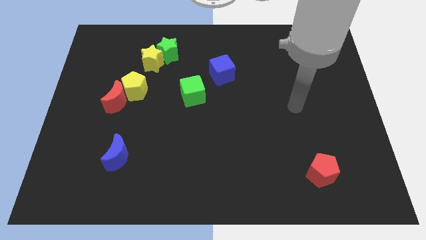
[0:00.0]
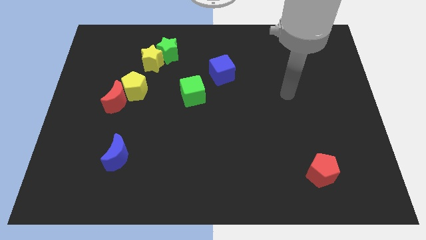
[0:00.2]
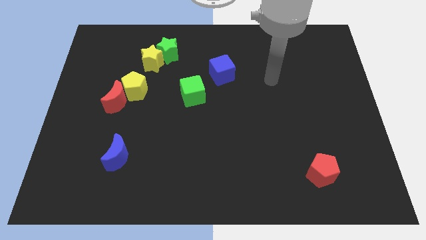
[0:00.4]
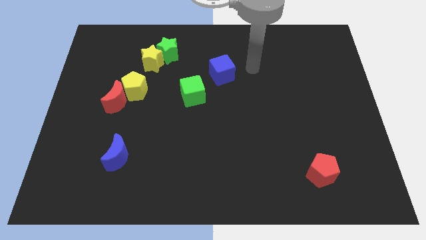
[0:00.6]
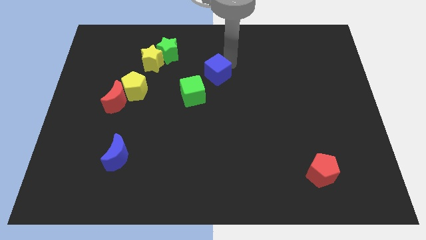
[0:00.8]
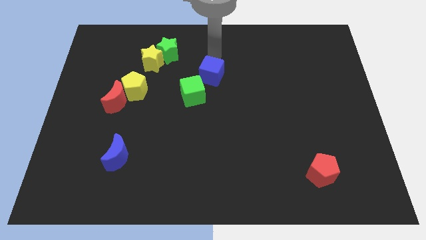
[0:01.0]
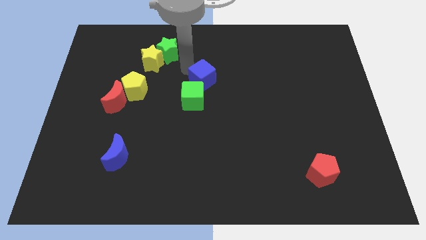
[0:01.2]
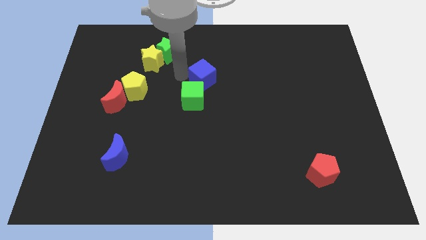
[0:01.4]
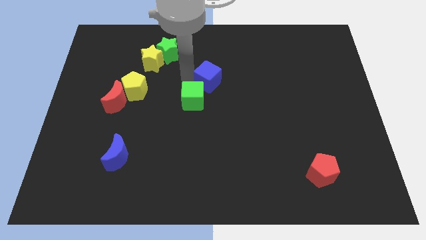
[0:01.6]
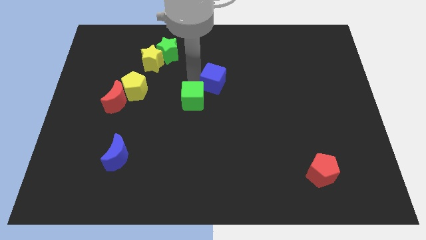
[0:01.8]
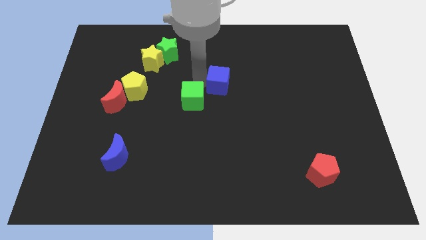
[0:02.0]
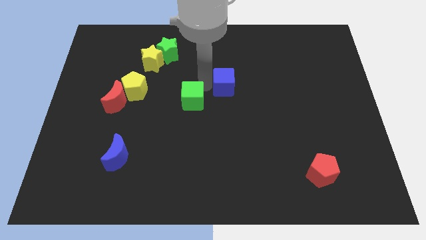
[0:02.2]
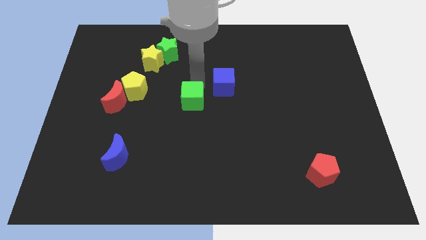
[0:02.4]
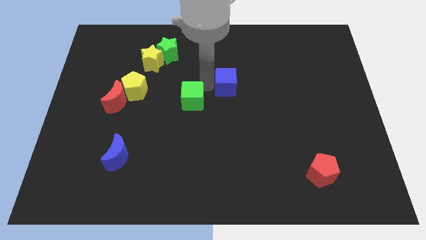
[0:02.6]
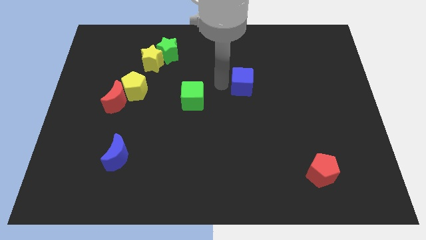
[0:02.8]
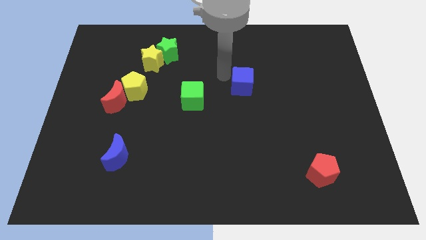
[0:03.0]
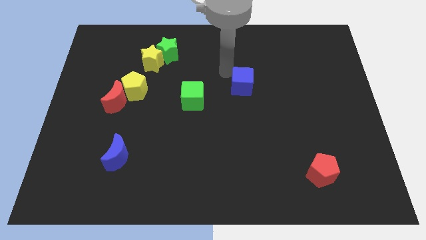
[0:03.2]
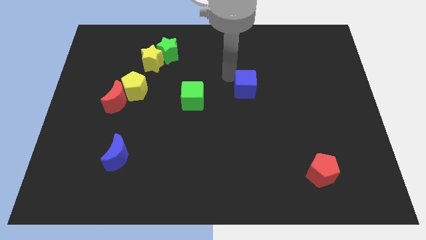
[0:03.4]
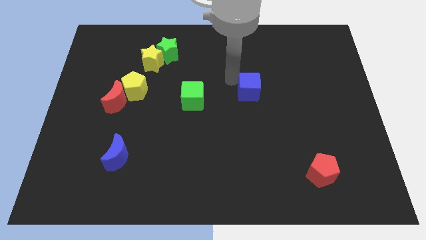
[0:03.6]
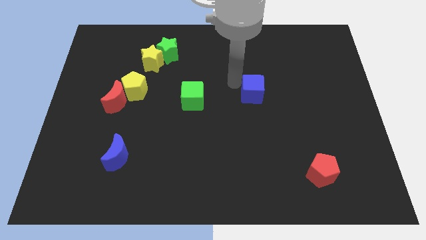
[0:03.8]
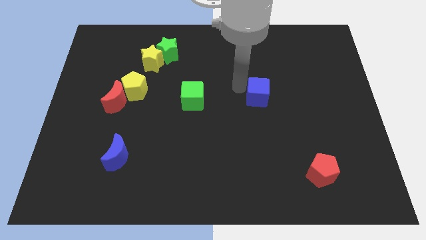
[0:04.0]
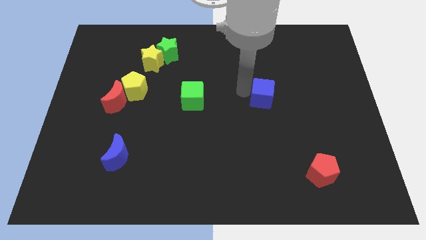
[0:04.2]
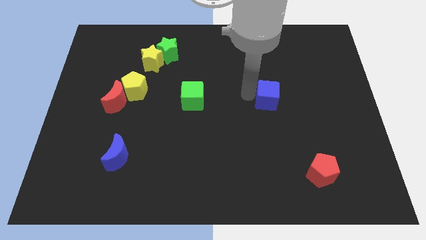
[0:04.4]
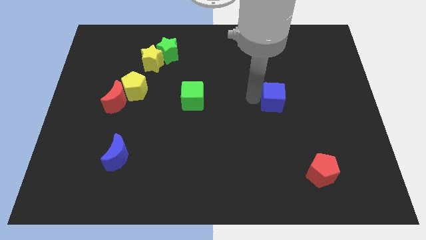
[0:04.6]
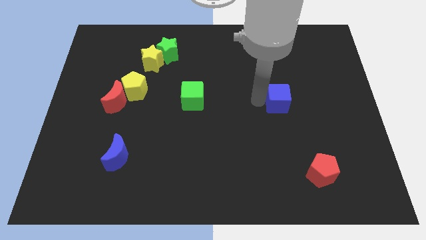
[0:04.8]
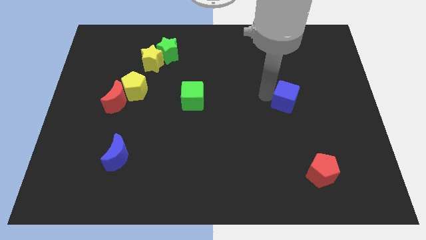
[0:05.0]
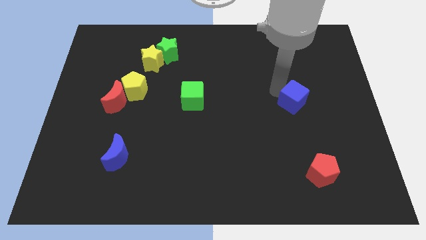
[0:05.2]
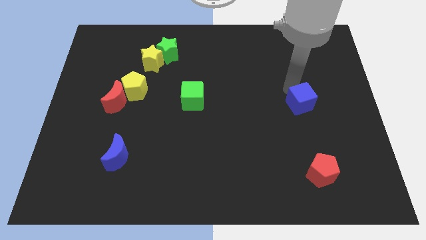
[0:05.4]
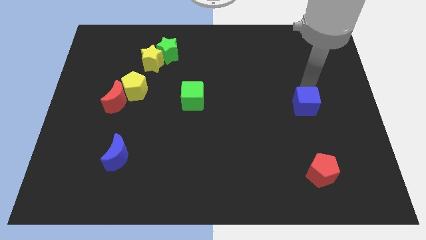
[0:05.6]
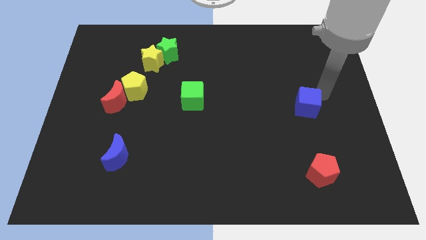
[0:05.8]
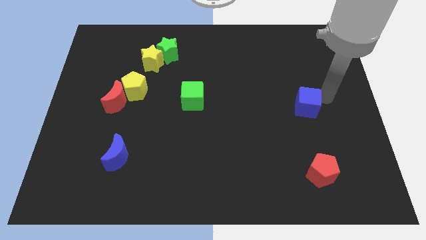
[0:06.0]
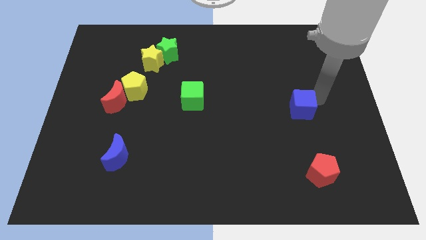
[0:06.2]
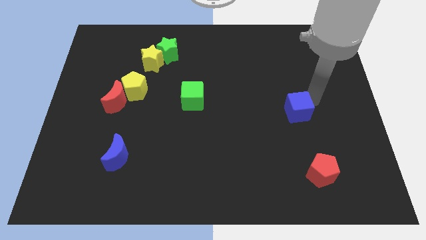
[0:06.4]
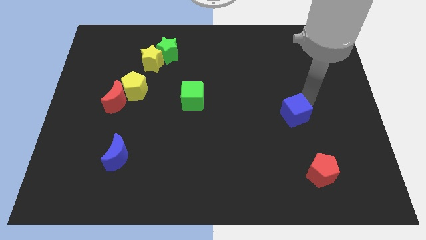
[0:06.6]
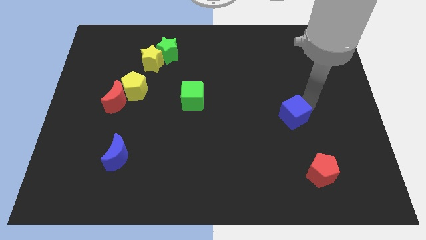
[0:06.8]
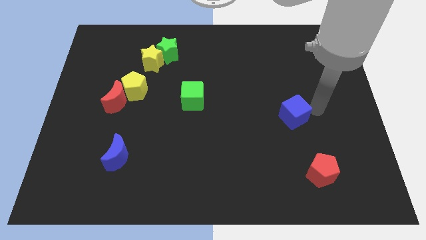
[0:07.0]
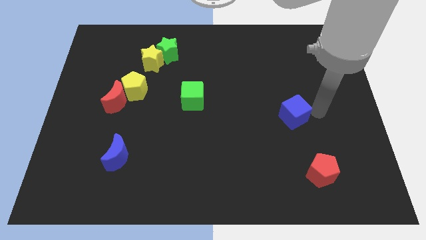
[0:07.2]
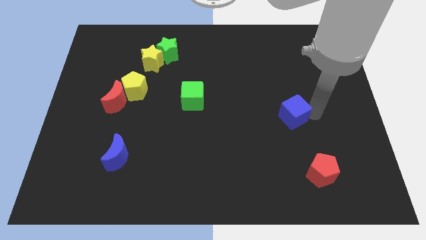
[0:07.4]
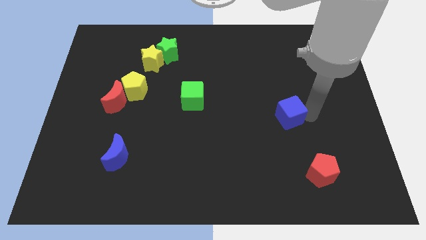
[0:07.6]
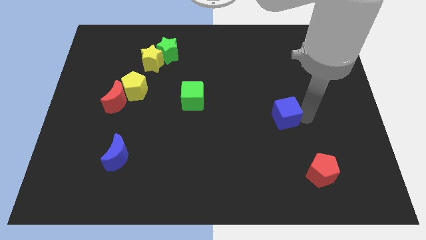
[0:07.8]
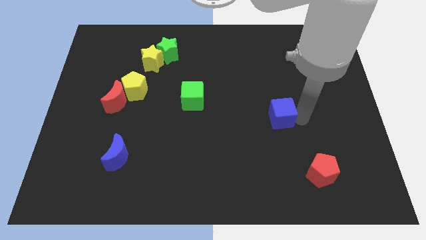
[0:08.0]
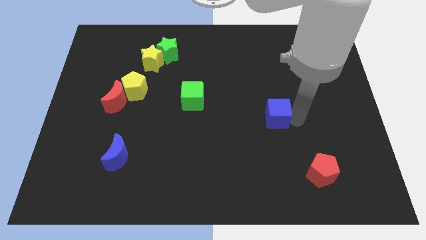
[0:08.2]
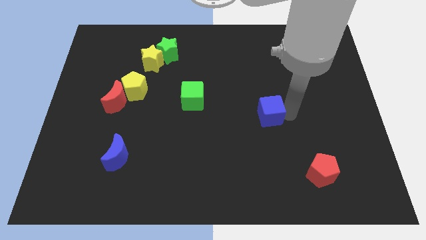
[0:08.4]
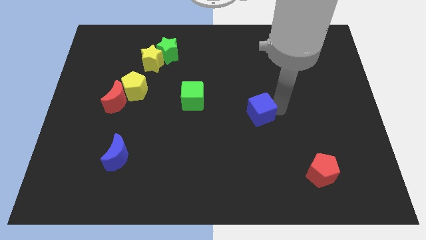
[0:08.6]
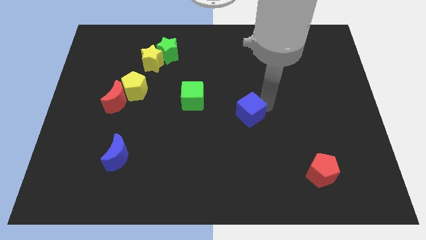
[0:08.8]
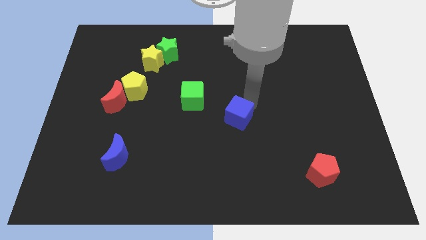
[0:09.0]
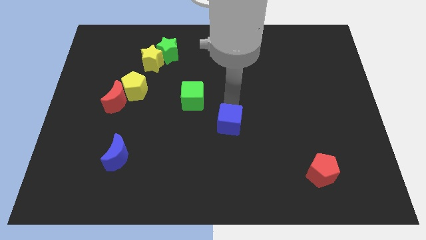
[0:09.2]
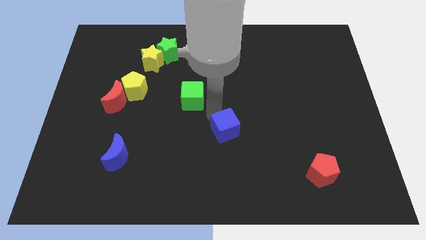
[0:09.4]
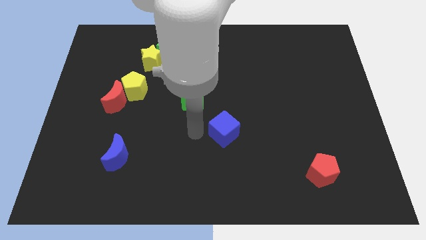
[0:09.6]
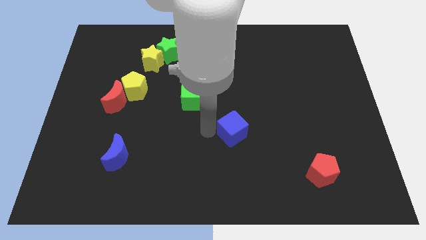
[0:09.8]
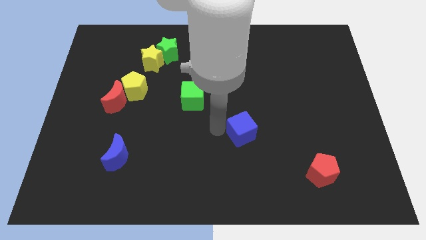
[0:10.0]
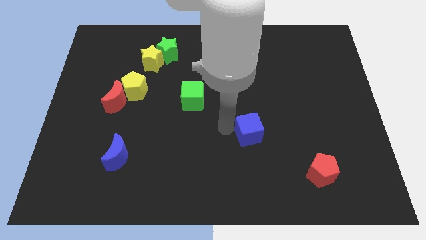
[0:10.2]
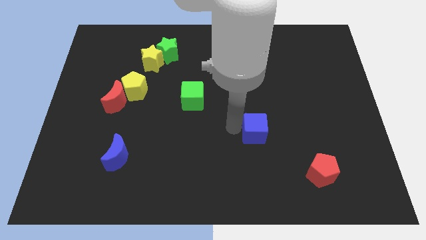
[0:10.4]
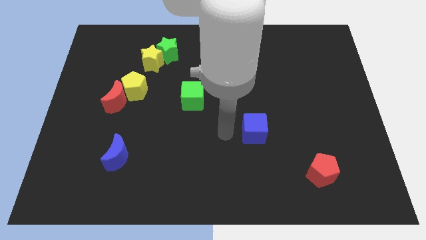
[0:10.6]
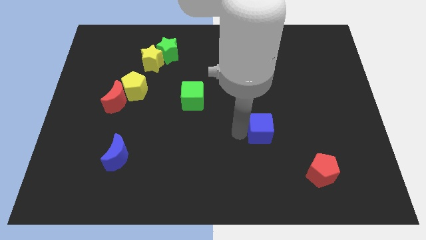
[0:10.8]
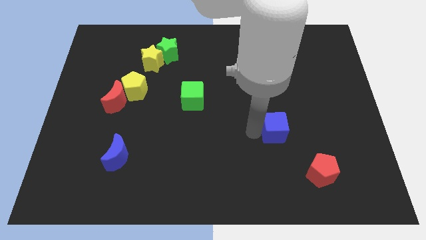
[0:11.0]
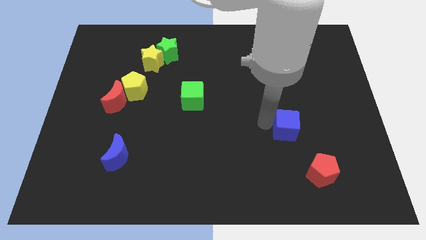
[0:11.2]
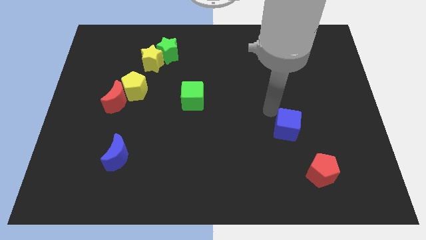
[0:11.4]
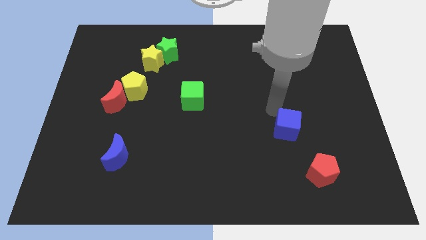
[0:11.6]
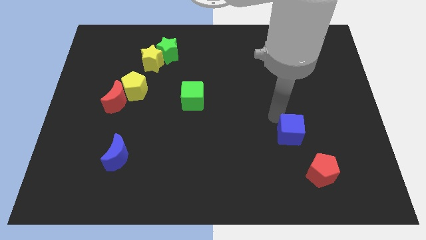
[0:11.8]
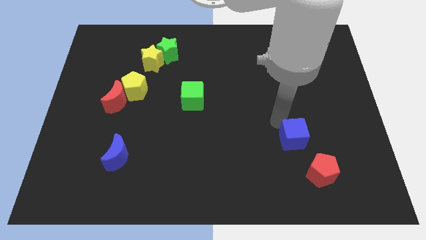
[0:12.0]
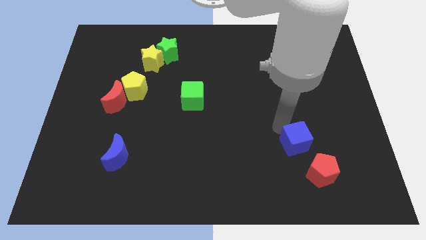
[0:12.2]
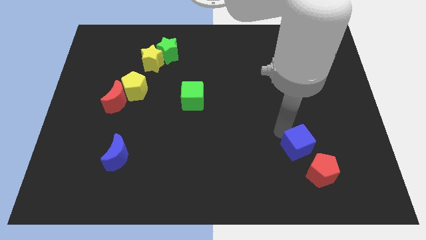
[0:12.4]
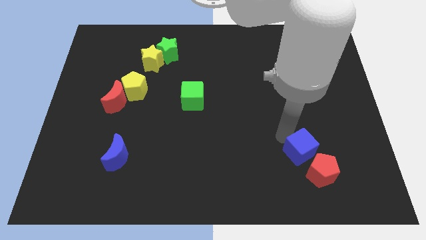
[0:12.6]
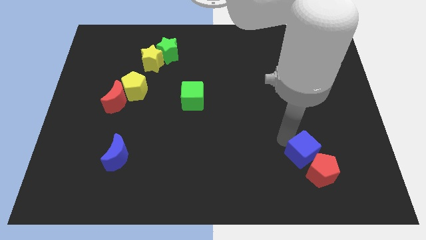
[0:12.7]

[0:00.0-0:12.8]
move the blue cube to the red pentagon
